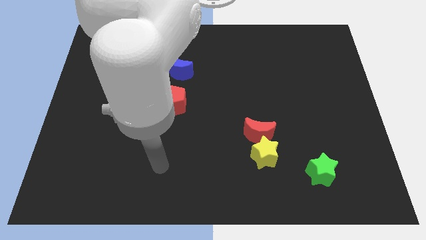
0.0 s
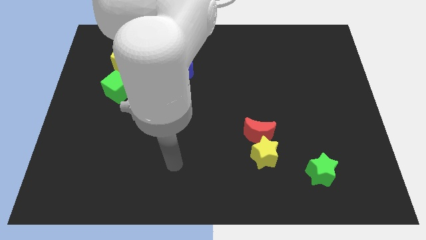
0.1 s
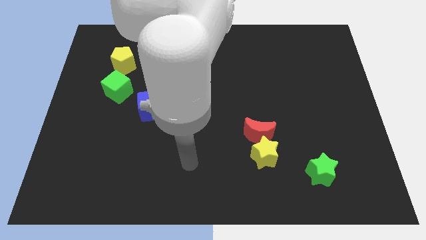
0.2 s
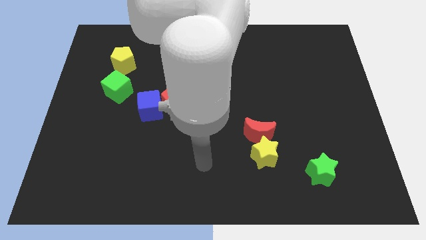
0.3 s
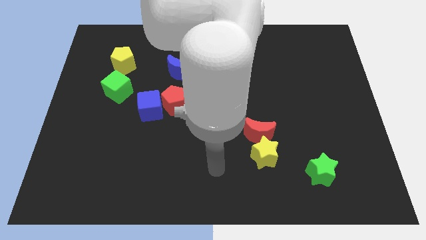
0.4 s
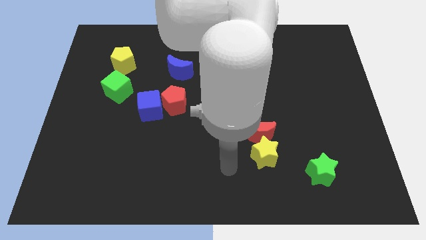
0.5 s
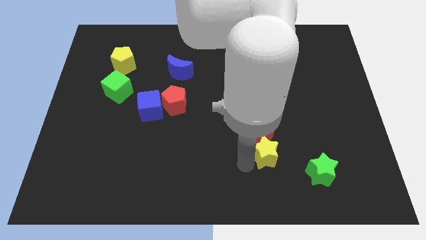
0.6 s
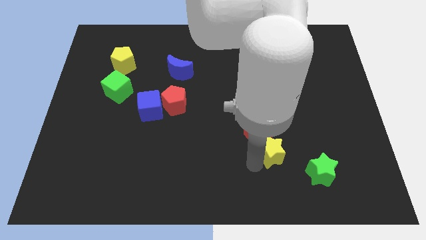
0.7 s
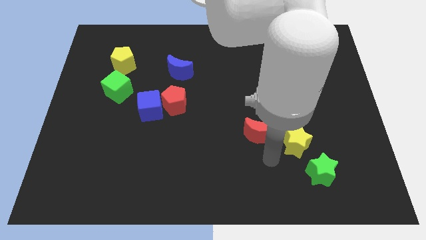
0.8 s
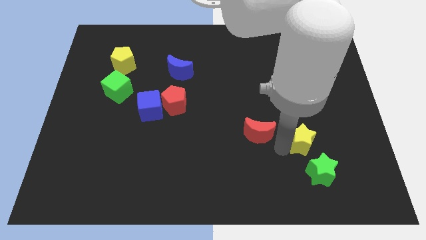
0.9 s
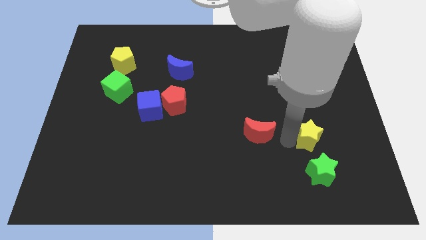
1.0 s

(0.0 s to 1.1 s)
separate the red moon from the yellow star

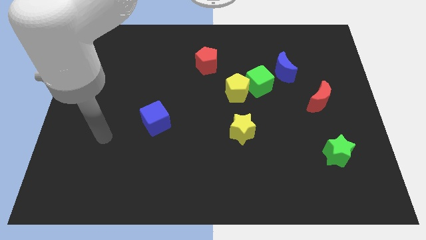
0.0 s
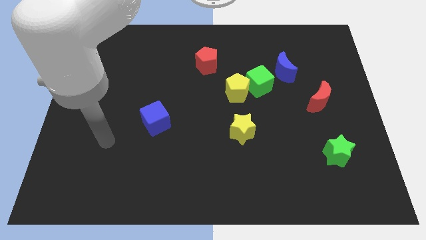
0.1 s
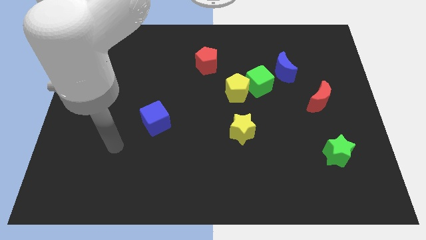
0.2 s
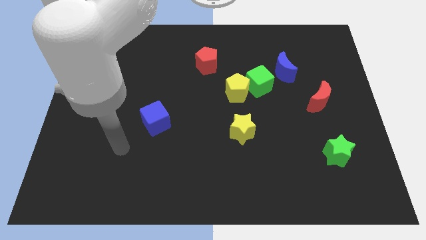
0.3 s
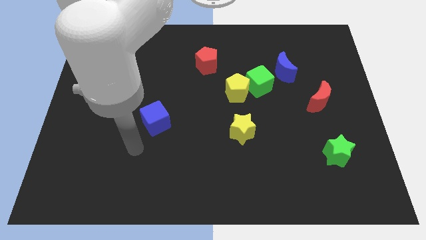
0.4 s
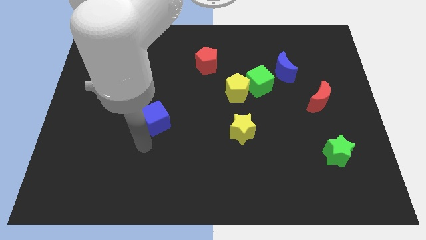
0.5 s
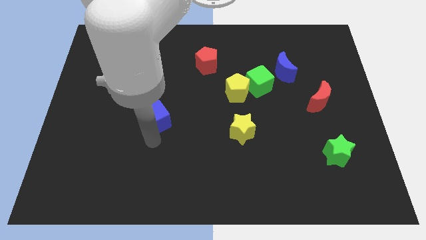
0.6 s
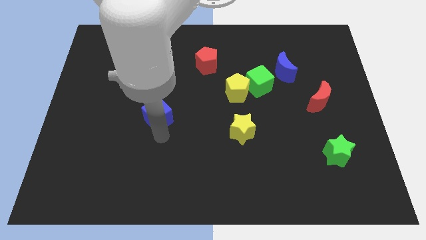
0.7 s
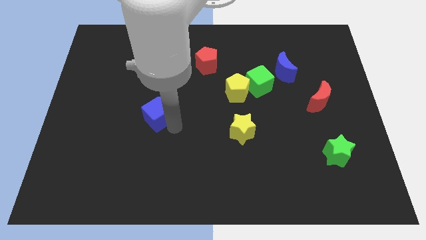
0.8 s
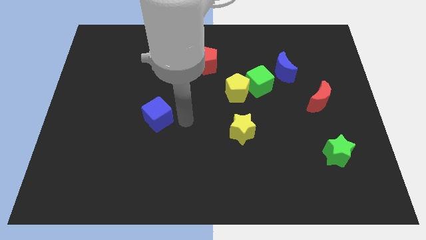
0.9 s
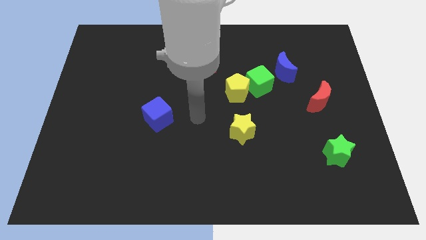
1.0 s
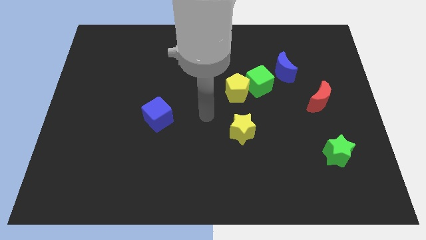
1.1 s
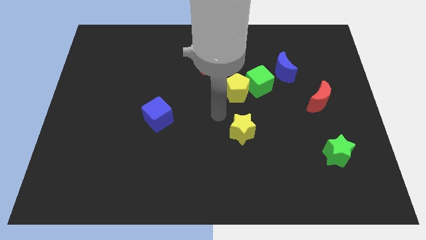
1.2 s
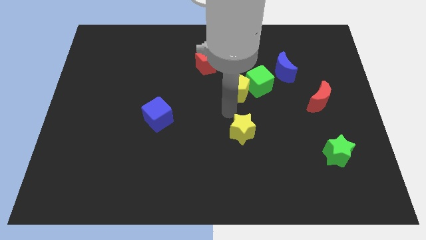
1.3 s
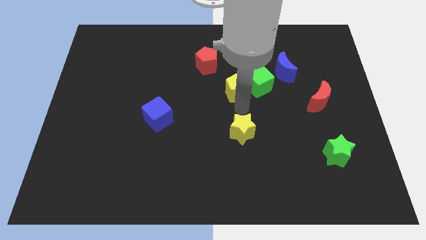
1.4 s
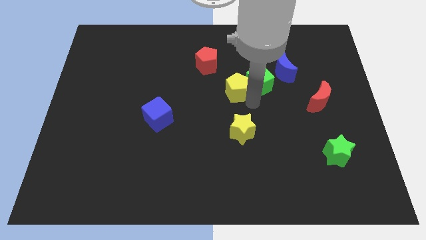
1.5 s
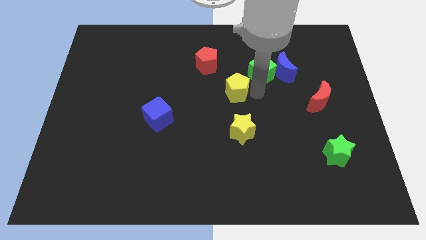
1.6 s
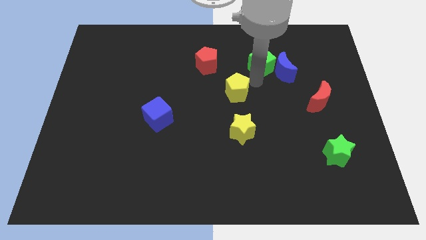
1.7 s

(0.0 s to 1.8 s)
pull the yellow pentagon apart from the green cube

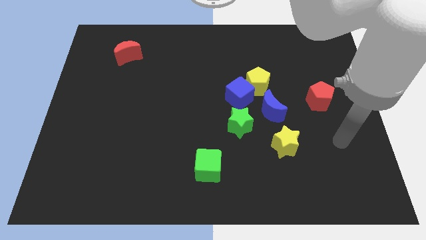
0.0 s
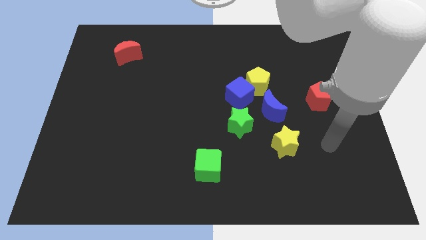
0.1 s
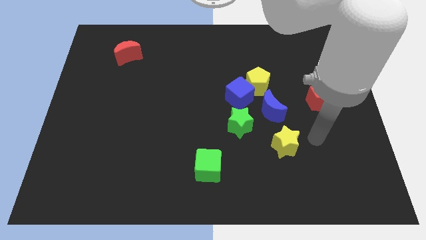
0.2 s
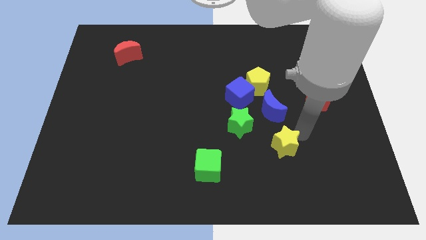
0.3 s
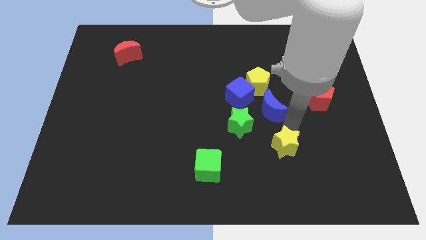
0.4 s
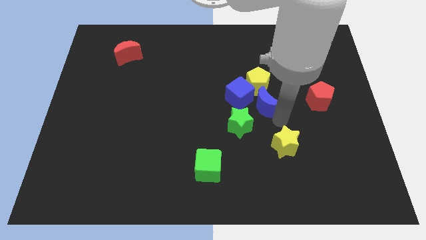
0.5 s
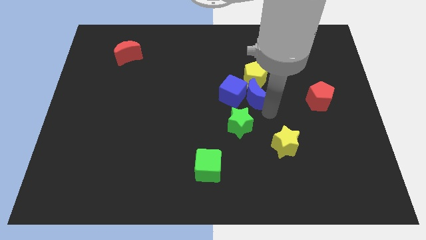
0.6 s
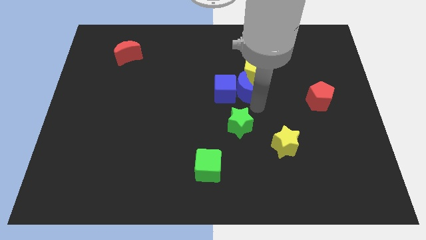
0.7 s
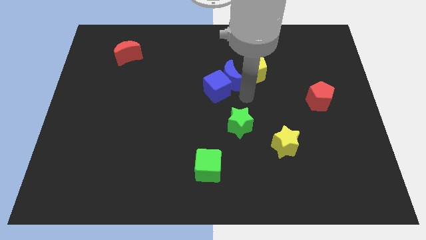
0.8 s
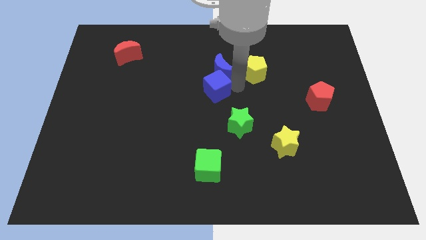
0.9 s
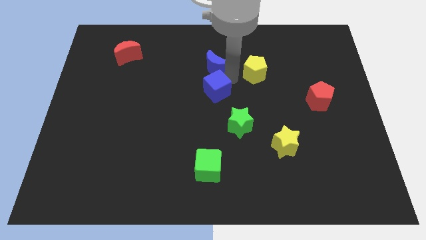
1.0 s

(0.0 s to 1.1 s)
separate the yellow pentagon from the blue cube and blue moon

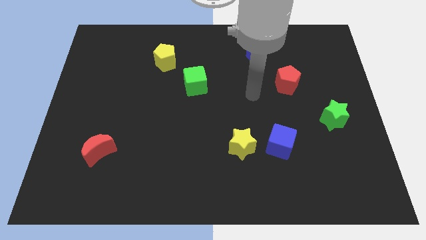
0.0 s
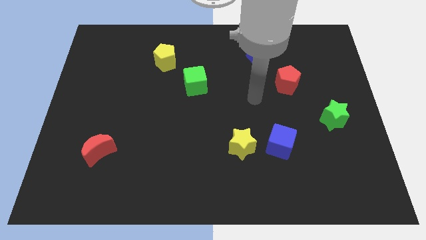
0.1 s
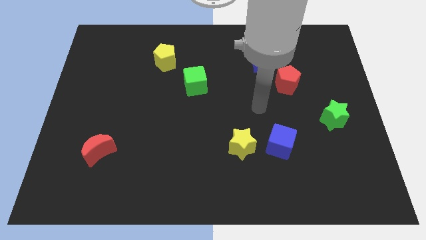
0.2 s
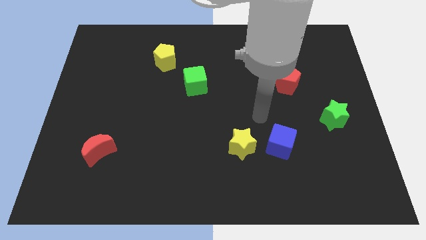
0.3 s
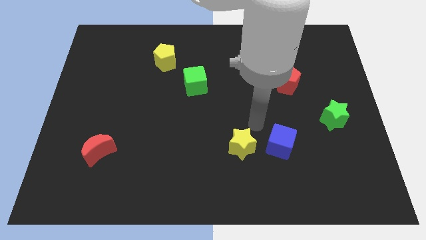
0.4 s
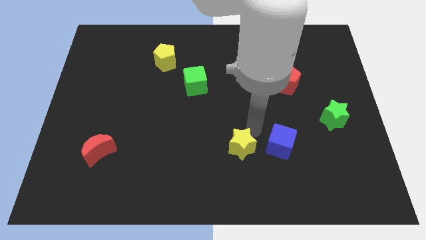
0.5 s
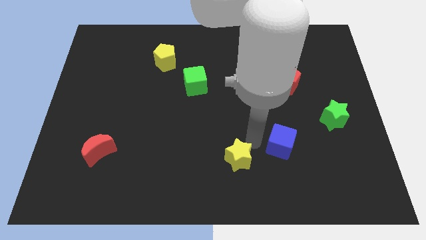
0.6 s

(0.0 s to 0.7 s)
move the blue cube away from the yellow star

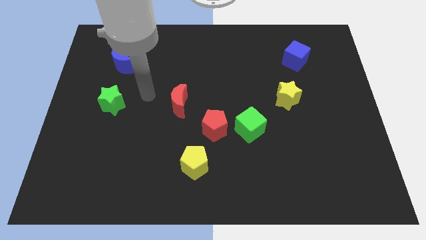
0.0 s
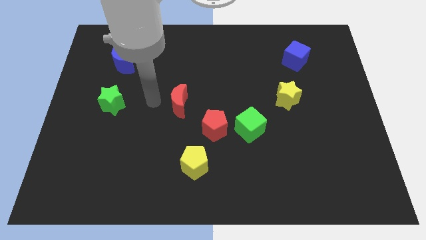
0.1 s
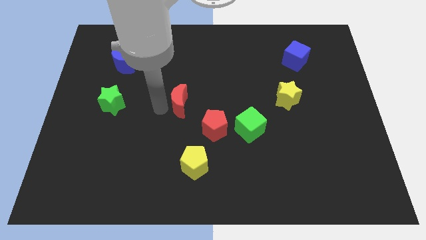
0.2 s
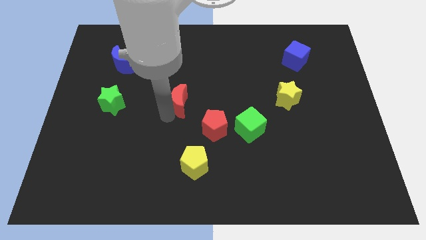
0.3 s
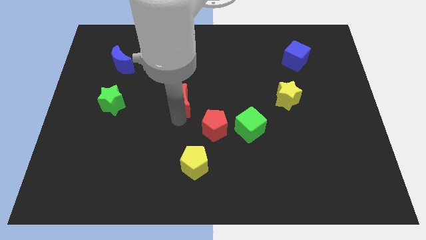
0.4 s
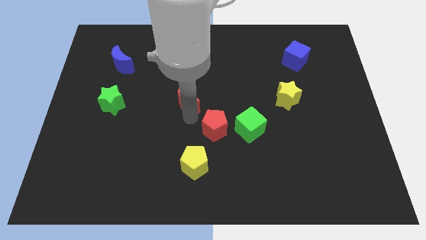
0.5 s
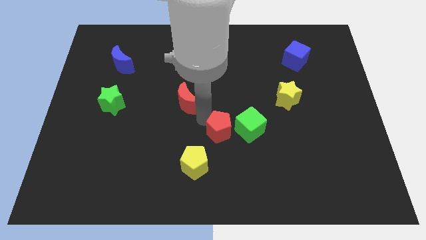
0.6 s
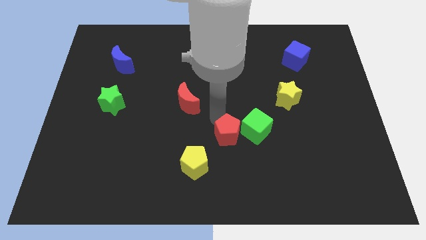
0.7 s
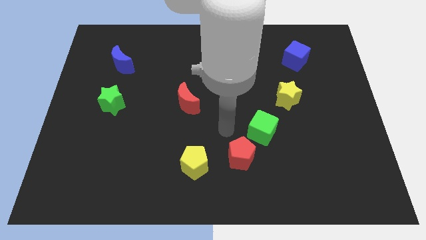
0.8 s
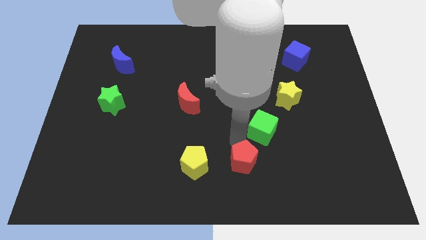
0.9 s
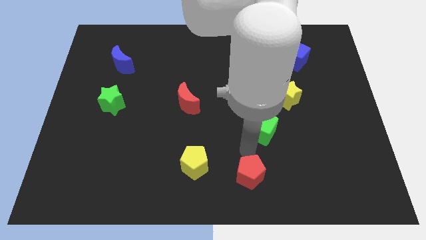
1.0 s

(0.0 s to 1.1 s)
separate the green cube from the red pentagon

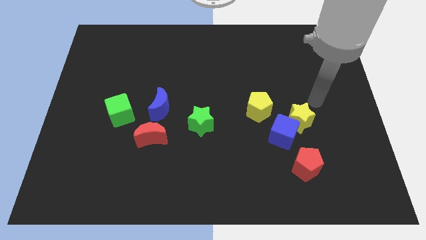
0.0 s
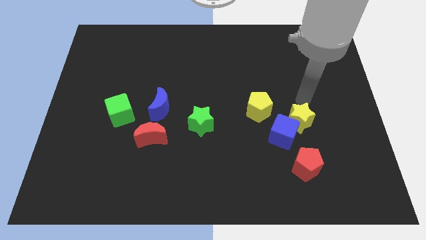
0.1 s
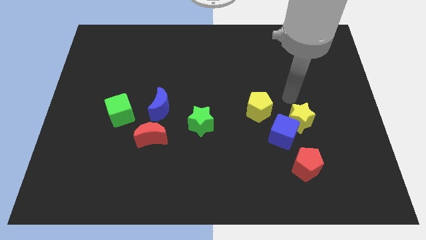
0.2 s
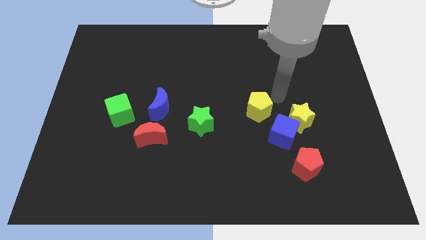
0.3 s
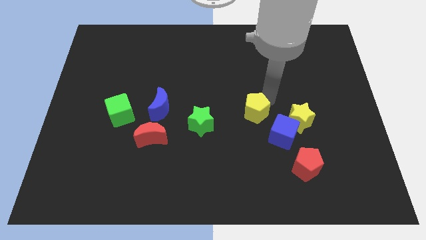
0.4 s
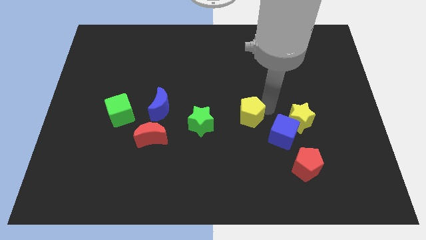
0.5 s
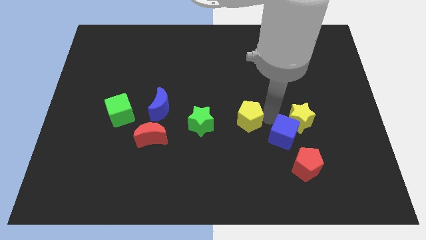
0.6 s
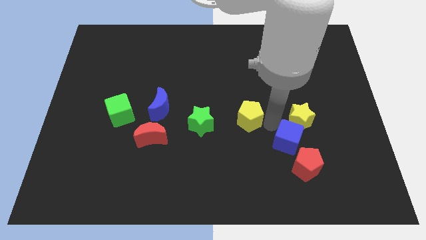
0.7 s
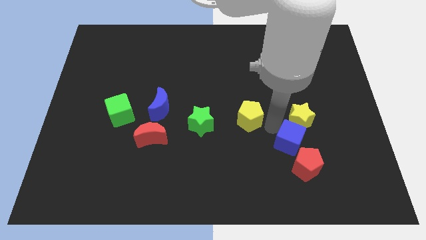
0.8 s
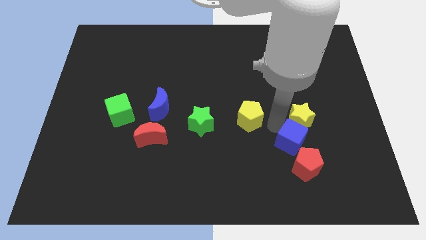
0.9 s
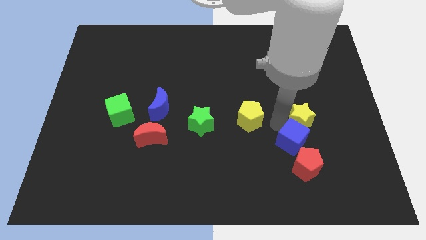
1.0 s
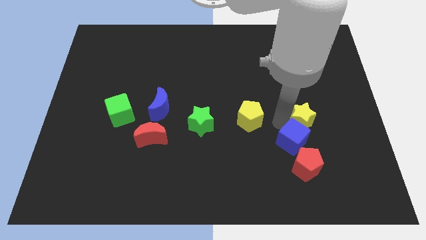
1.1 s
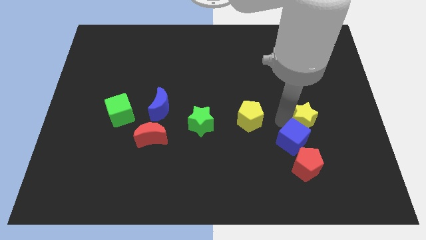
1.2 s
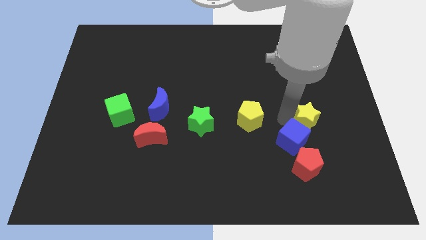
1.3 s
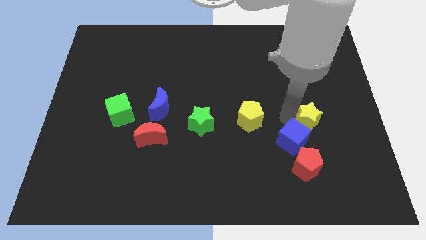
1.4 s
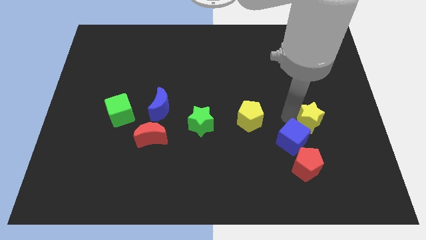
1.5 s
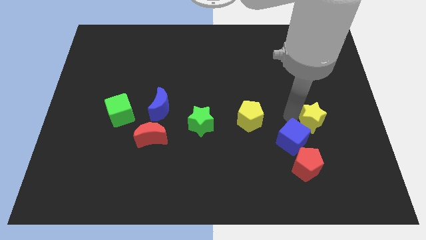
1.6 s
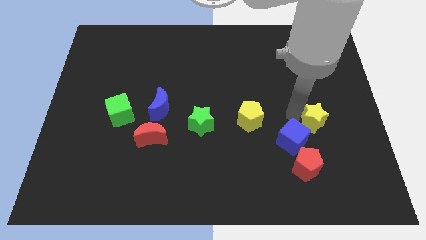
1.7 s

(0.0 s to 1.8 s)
move the yellow star away from the blue cube and yellow pentagon

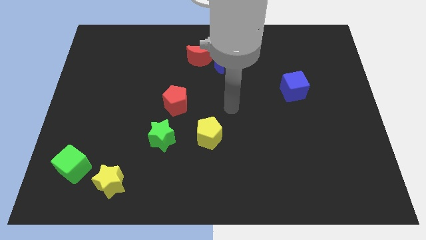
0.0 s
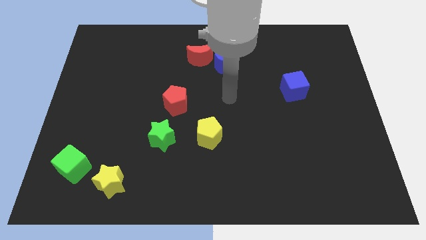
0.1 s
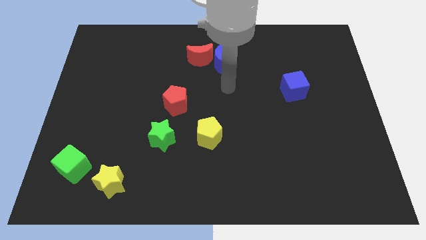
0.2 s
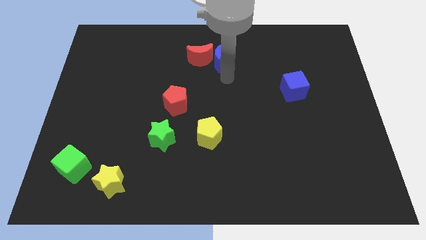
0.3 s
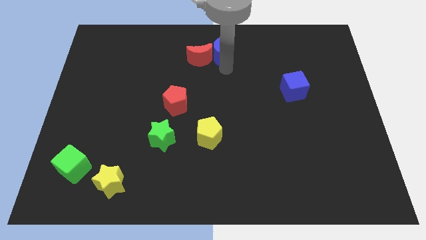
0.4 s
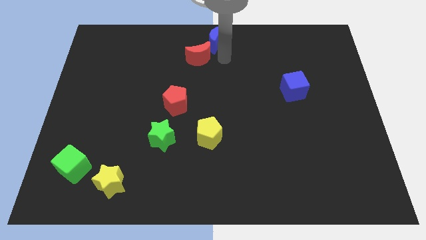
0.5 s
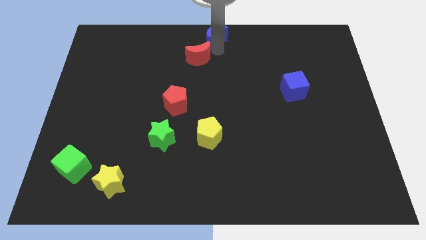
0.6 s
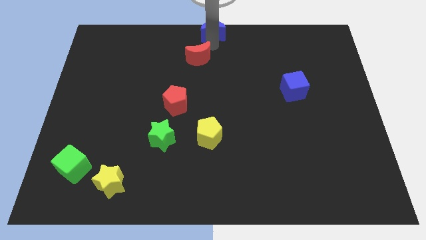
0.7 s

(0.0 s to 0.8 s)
move the red moon away from the blue moon

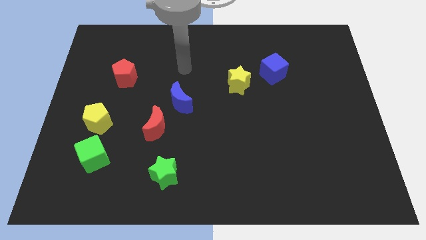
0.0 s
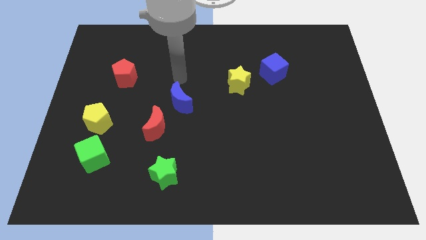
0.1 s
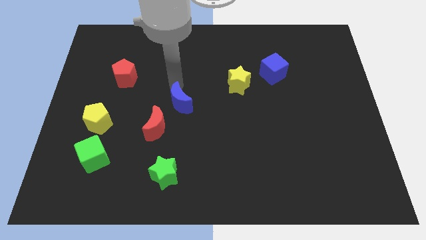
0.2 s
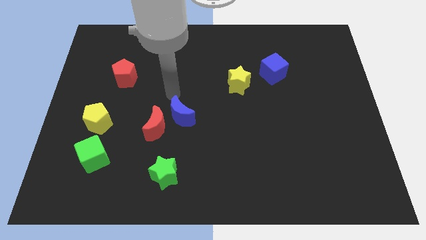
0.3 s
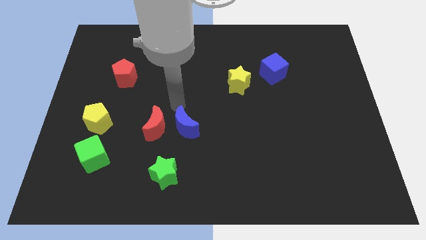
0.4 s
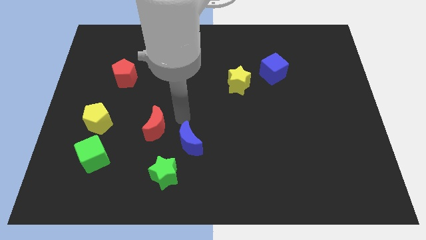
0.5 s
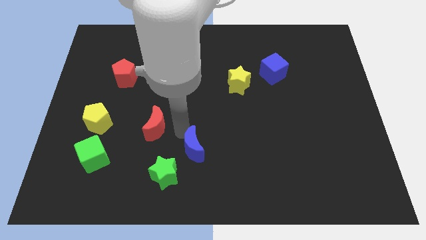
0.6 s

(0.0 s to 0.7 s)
pull the red moon apart from the blue moon
